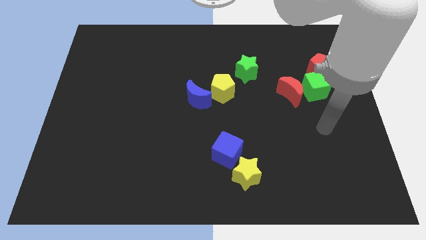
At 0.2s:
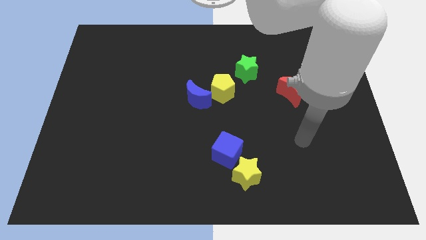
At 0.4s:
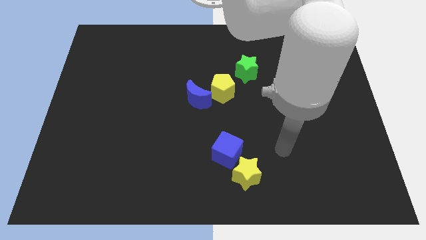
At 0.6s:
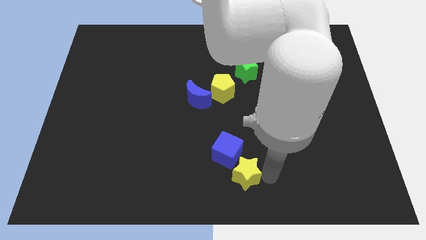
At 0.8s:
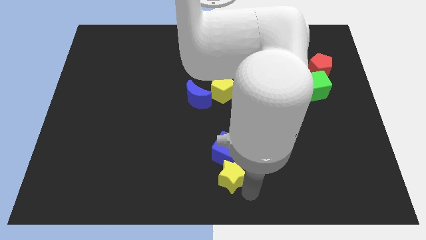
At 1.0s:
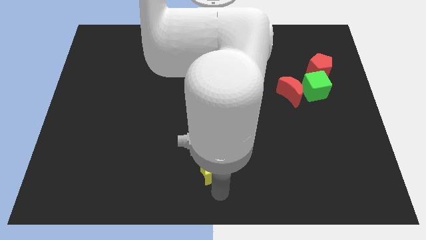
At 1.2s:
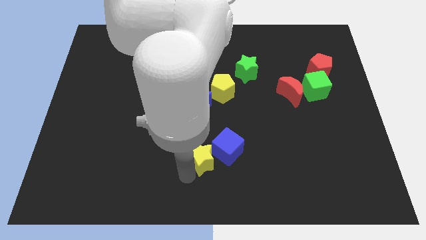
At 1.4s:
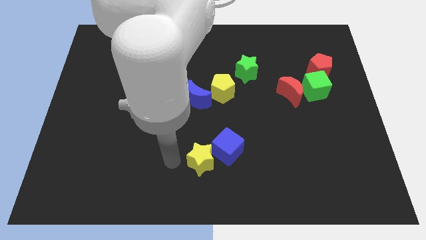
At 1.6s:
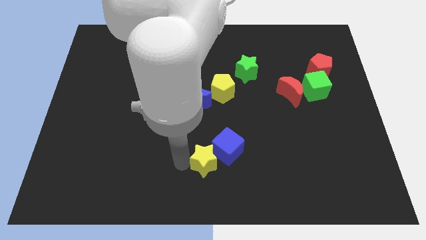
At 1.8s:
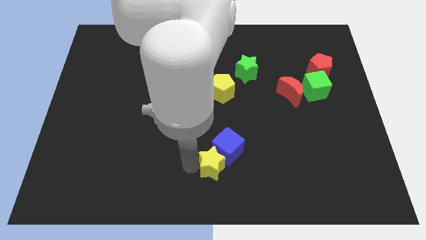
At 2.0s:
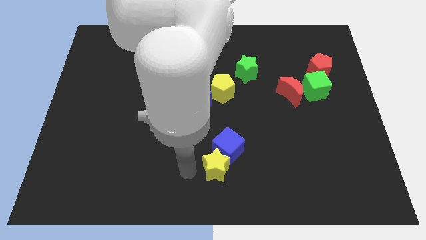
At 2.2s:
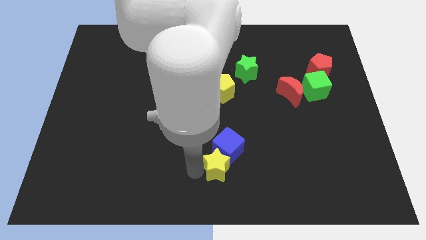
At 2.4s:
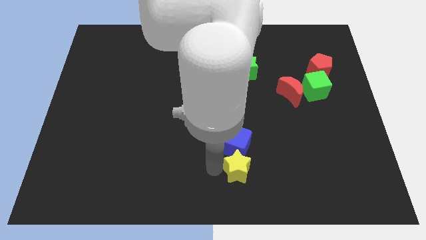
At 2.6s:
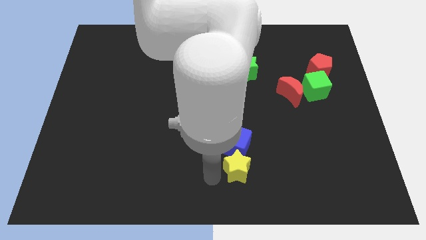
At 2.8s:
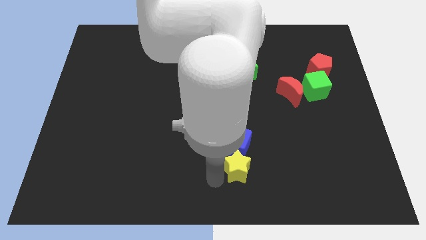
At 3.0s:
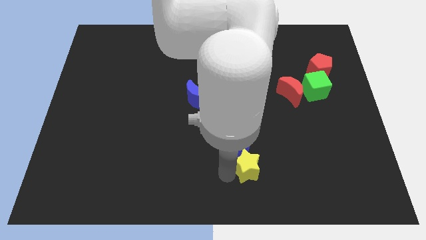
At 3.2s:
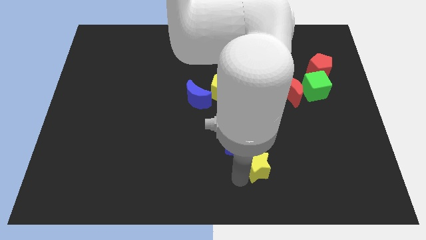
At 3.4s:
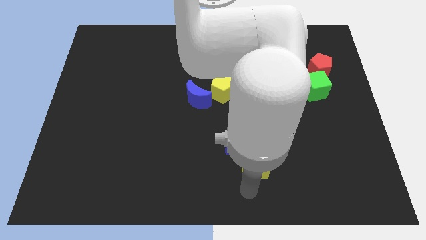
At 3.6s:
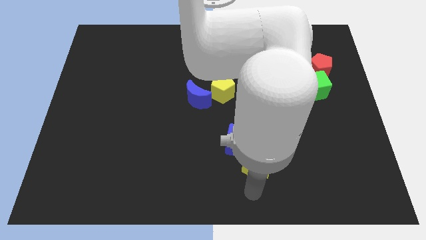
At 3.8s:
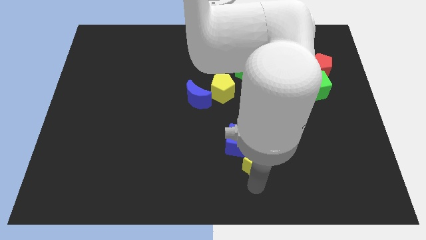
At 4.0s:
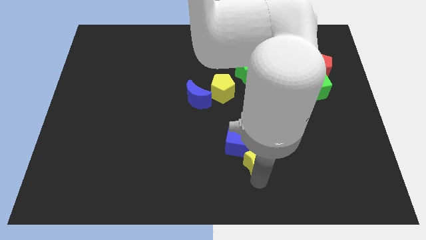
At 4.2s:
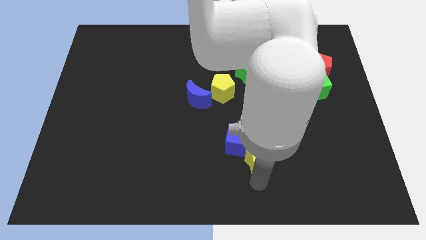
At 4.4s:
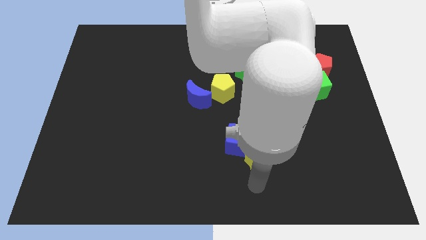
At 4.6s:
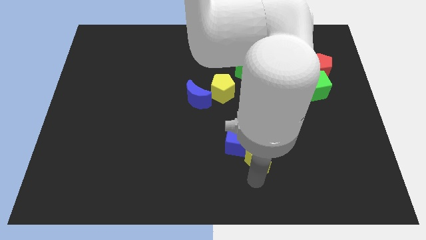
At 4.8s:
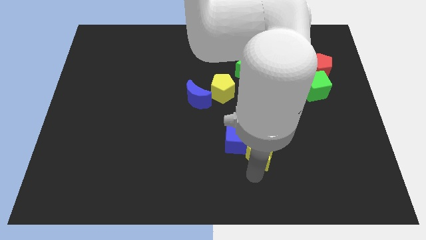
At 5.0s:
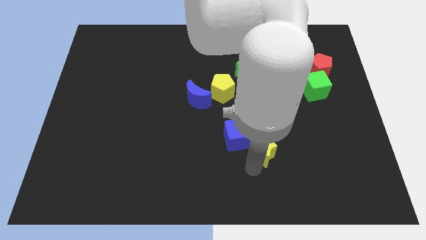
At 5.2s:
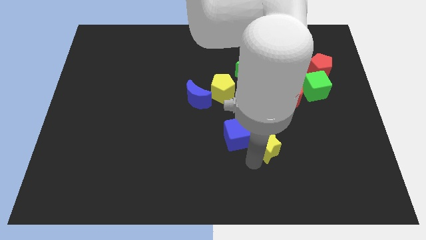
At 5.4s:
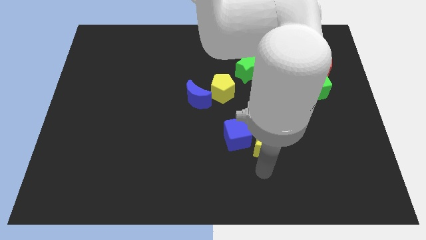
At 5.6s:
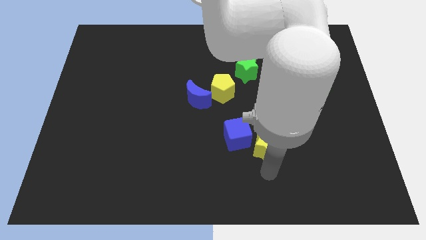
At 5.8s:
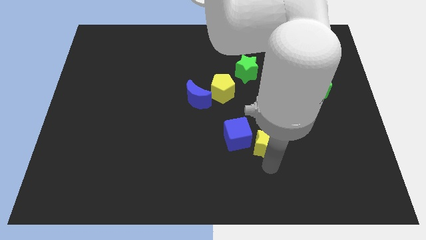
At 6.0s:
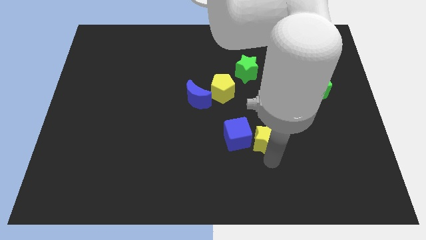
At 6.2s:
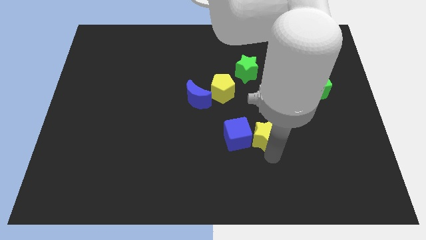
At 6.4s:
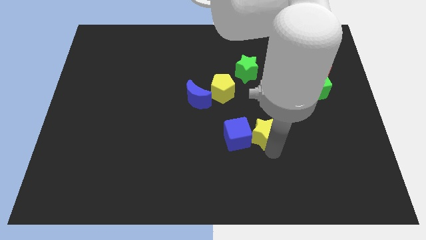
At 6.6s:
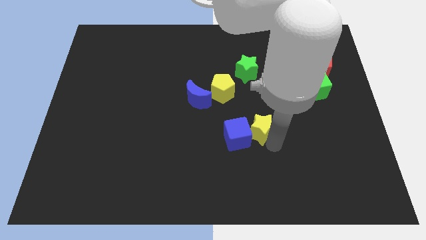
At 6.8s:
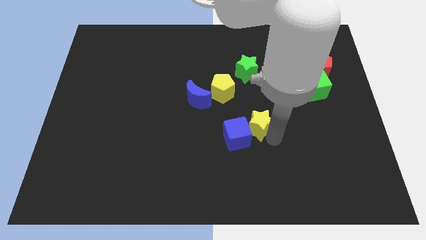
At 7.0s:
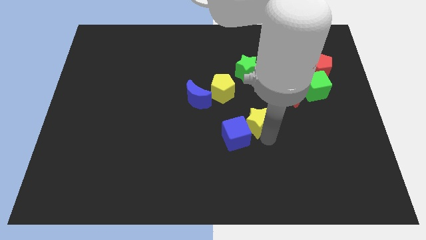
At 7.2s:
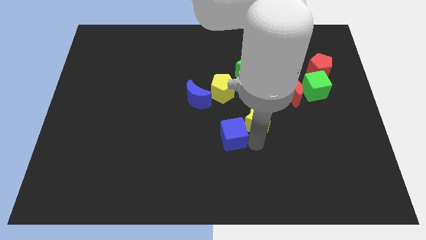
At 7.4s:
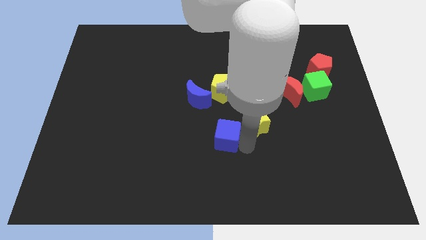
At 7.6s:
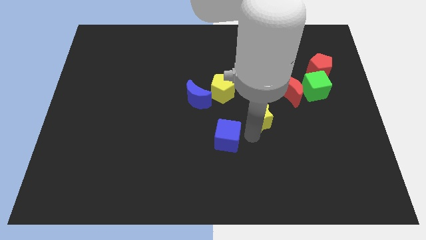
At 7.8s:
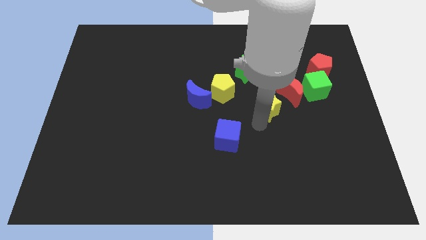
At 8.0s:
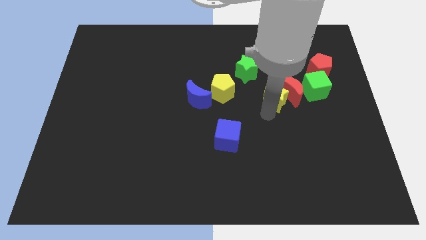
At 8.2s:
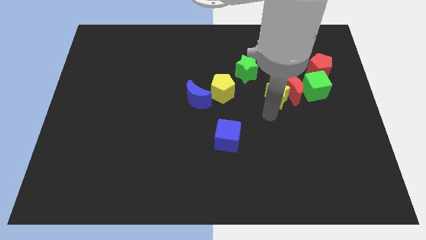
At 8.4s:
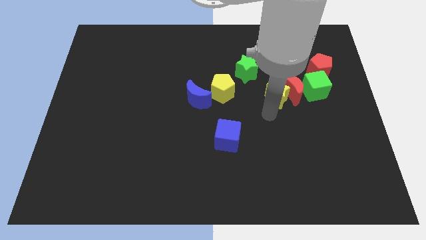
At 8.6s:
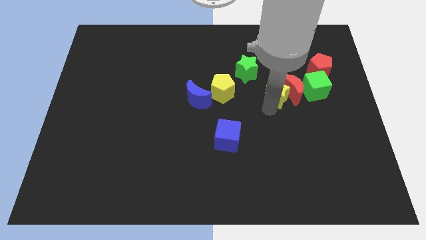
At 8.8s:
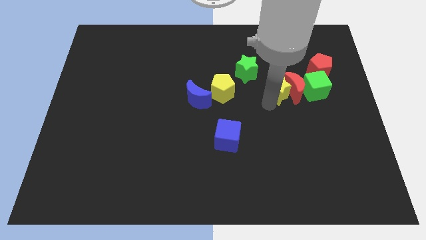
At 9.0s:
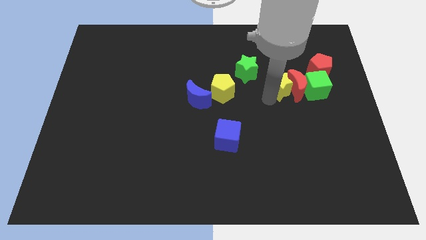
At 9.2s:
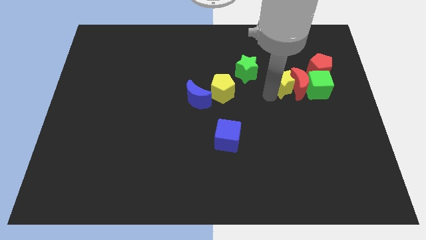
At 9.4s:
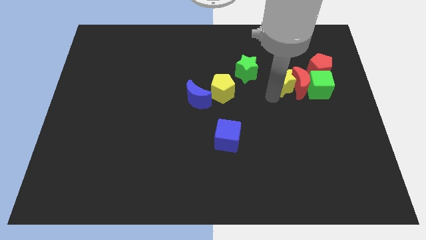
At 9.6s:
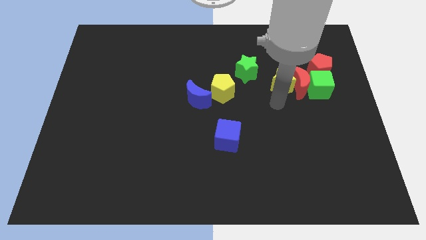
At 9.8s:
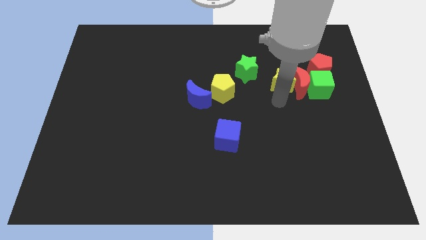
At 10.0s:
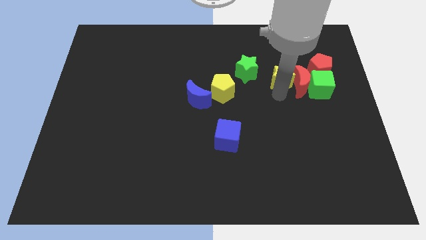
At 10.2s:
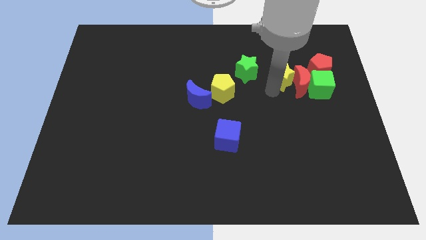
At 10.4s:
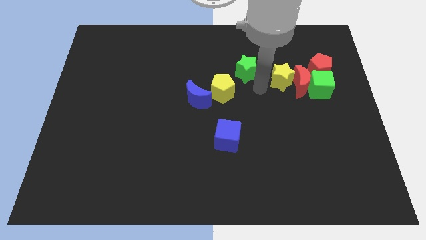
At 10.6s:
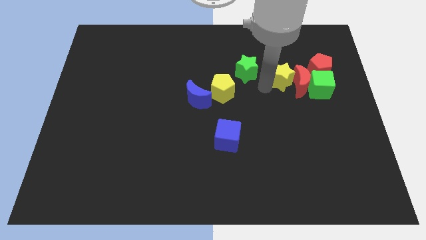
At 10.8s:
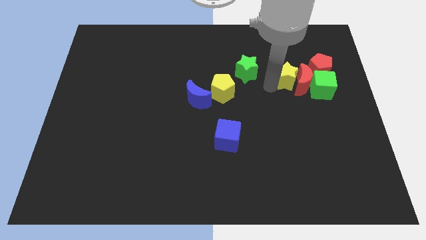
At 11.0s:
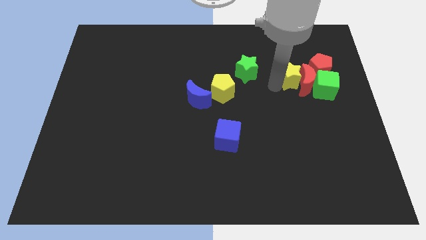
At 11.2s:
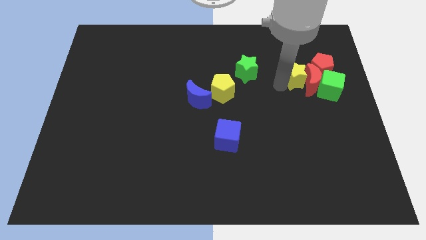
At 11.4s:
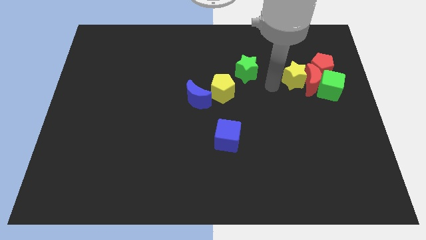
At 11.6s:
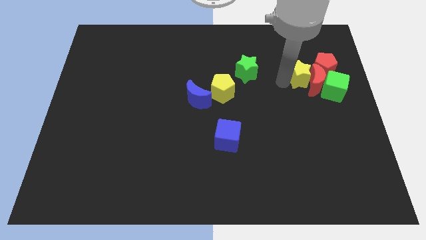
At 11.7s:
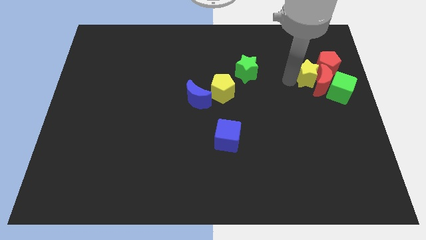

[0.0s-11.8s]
push the yellow star next to the red pentagon

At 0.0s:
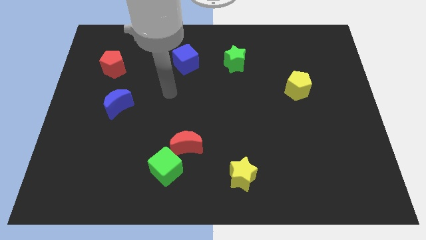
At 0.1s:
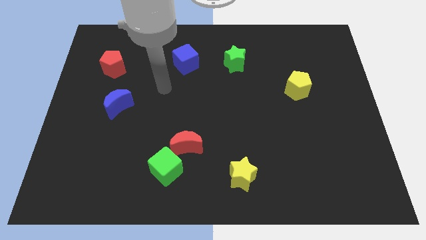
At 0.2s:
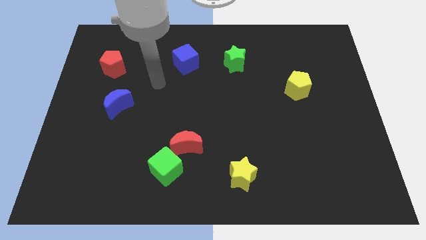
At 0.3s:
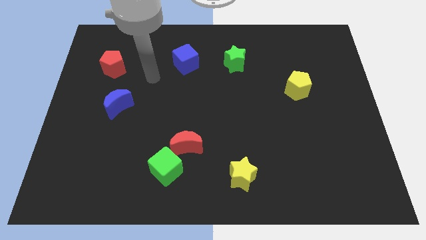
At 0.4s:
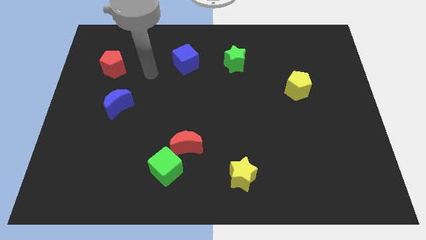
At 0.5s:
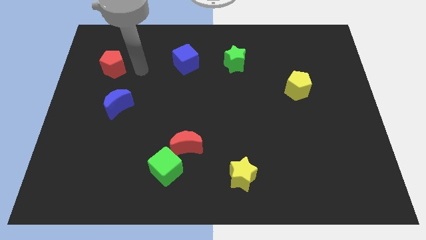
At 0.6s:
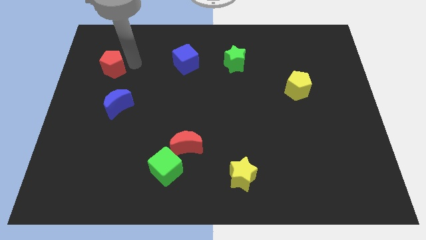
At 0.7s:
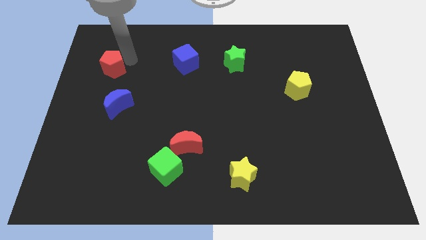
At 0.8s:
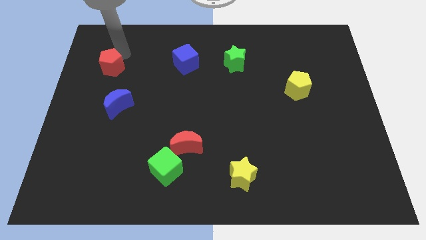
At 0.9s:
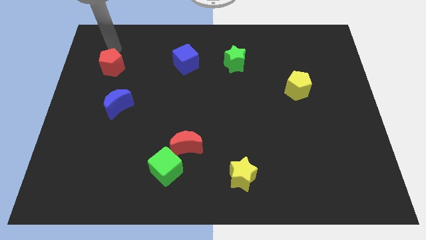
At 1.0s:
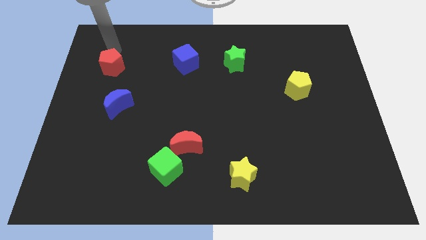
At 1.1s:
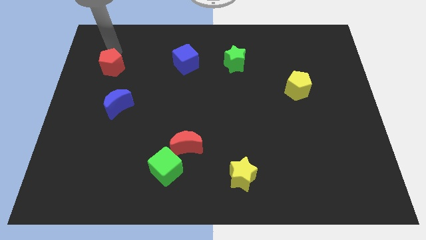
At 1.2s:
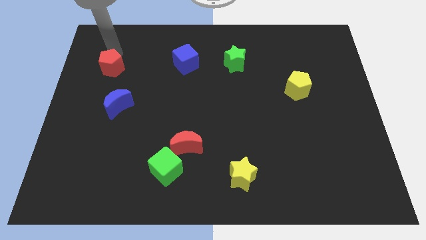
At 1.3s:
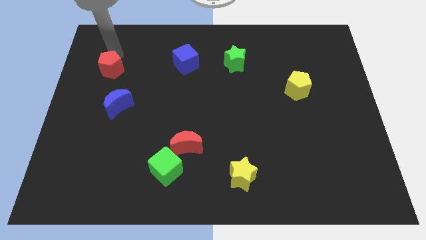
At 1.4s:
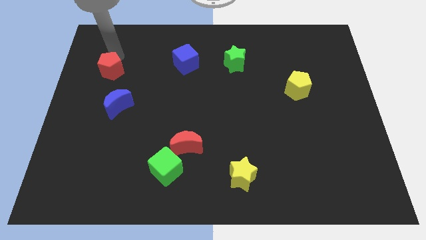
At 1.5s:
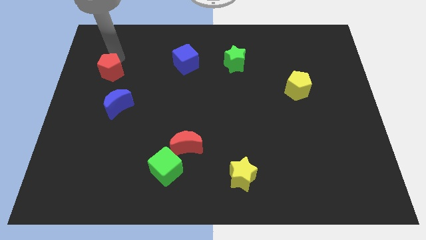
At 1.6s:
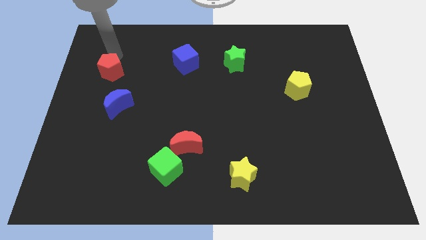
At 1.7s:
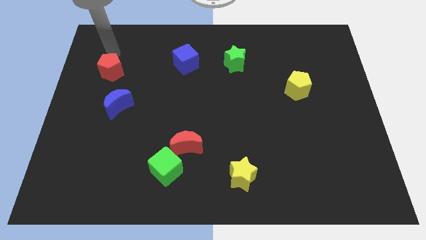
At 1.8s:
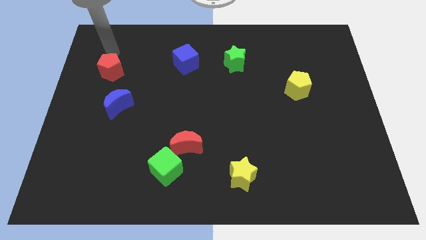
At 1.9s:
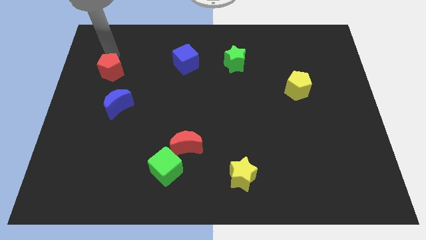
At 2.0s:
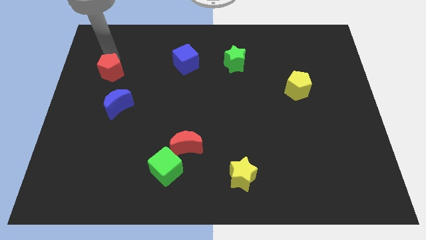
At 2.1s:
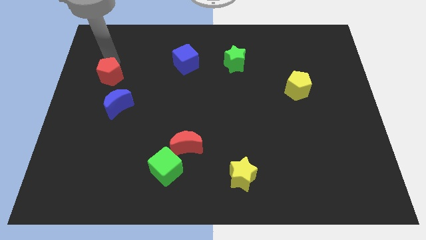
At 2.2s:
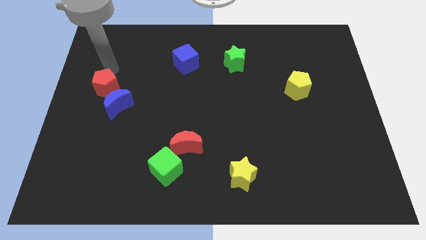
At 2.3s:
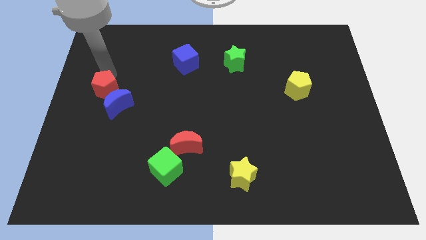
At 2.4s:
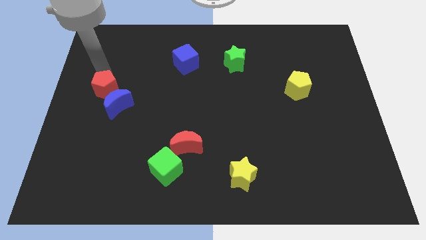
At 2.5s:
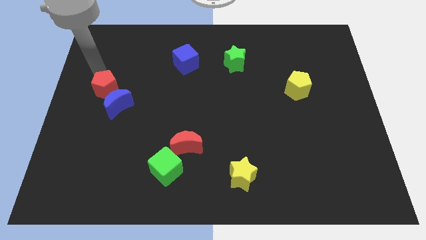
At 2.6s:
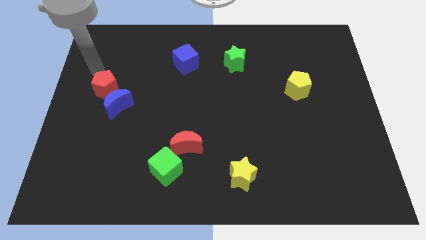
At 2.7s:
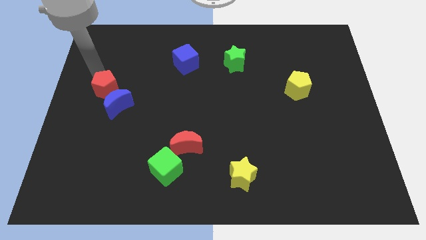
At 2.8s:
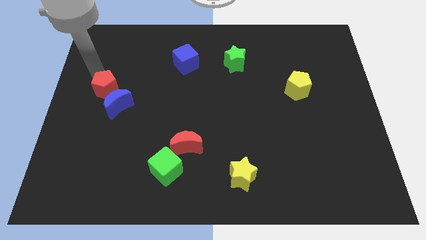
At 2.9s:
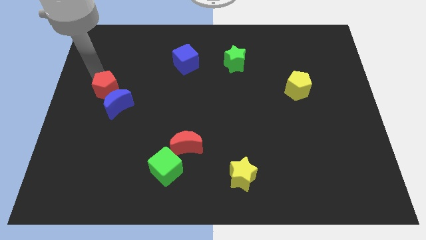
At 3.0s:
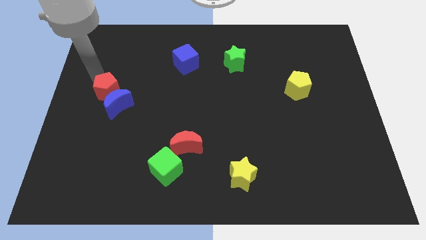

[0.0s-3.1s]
push the red pentagon towards the blue moon
